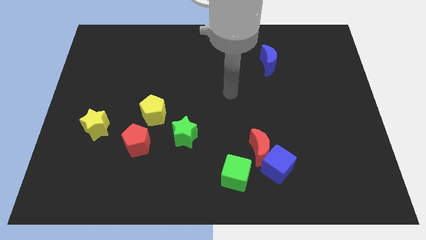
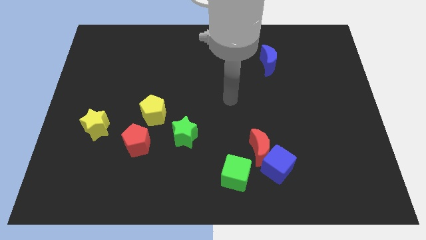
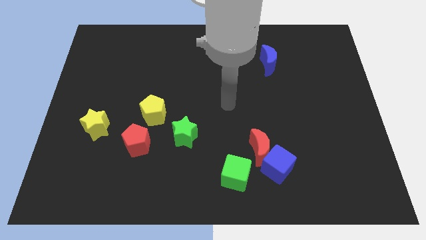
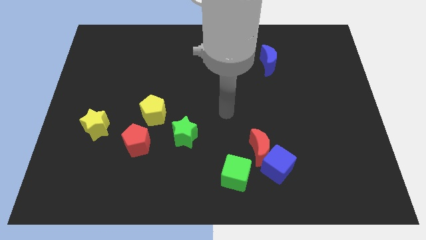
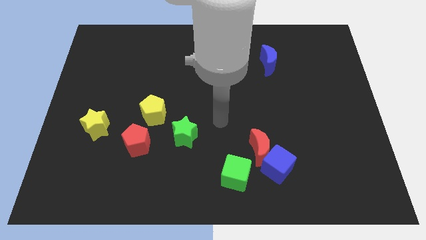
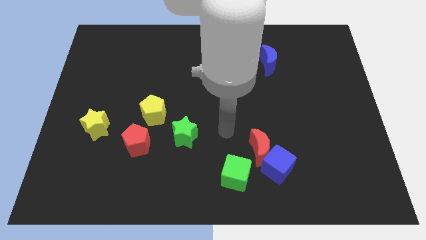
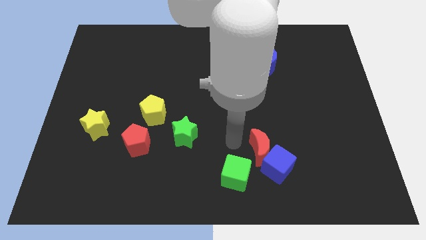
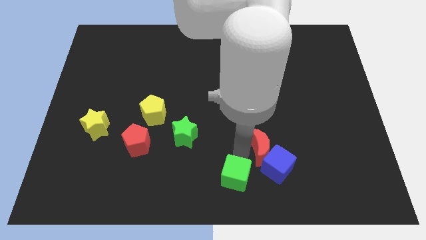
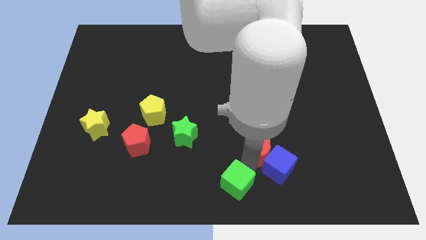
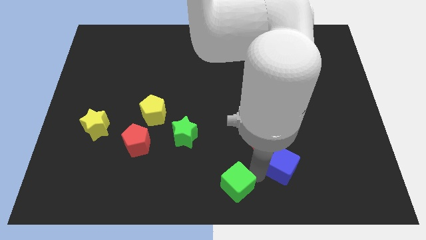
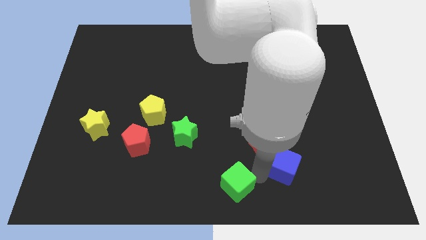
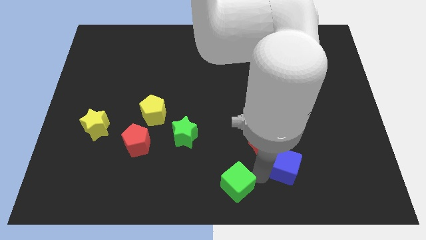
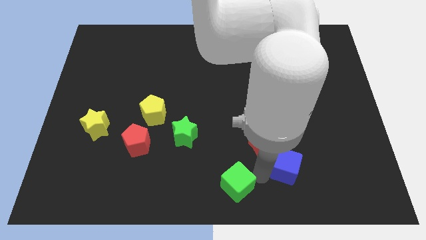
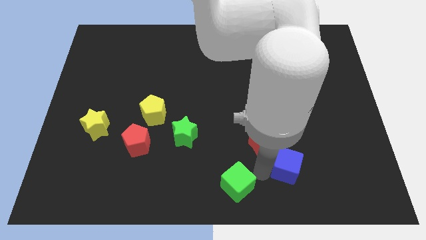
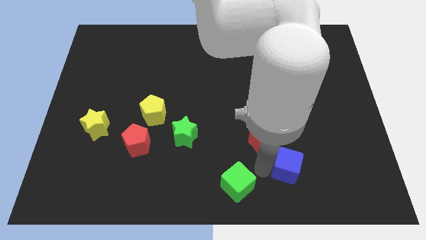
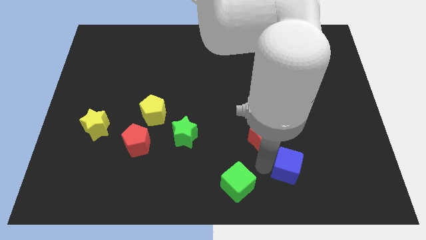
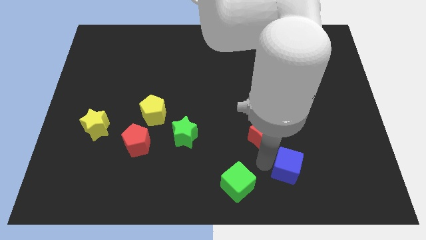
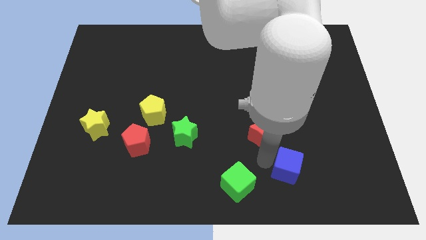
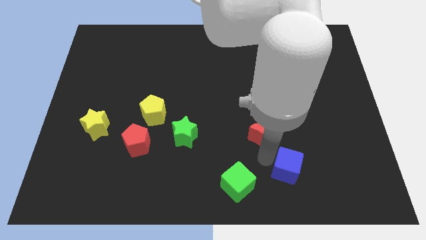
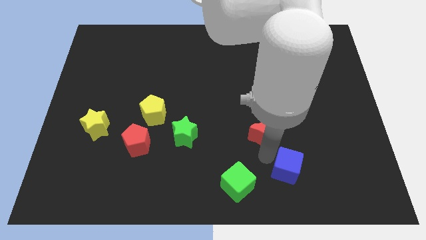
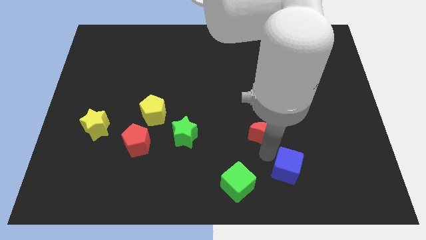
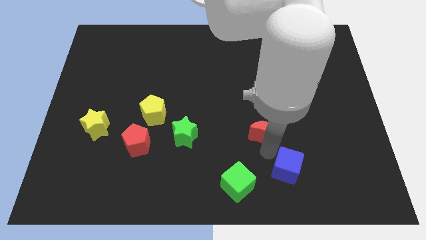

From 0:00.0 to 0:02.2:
separate the red moon from the blue cube and green cube

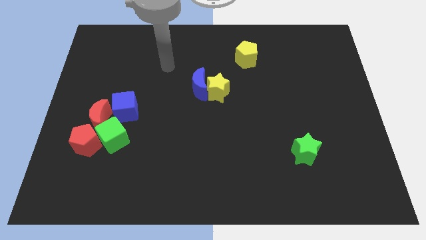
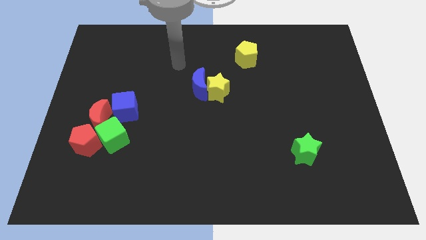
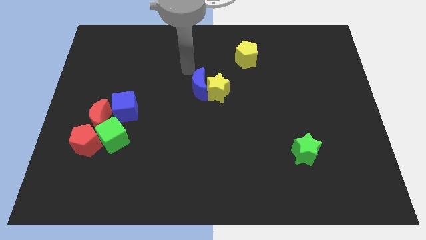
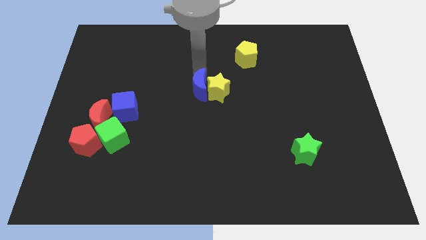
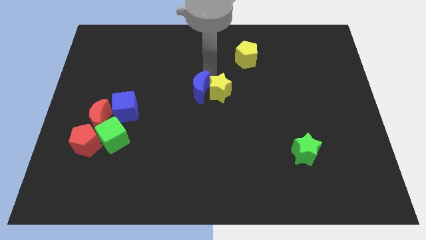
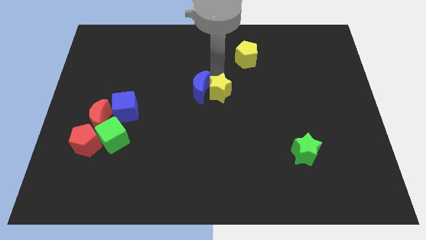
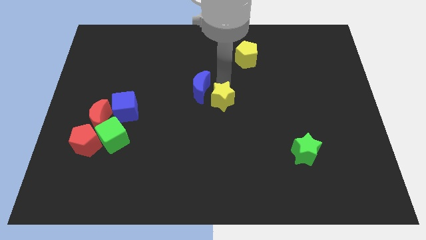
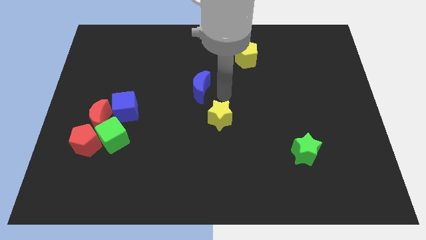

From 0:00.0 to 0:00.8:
pull the blue moon apart from the yellow star

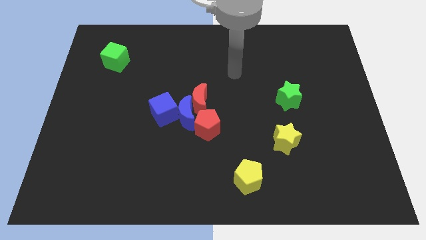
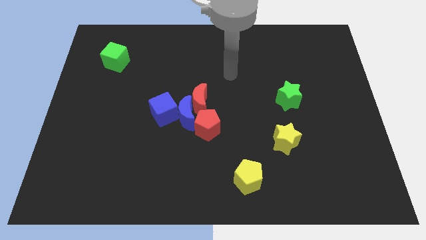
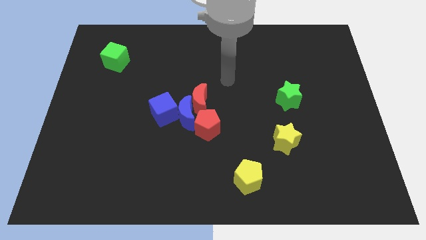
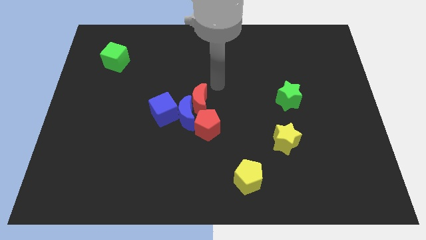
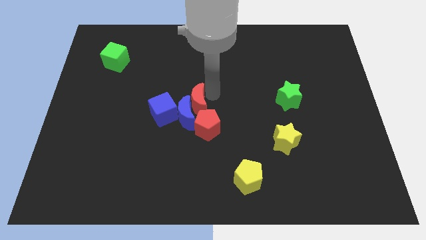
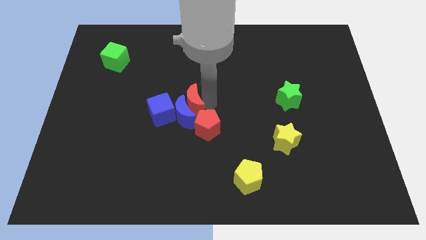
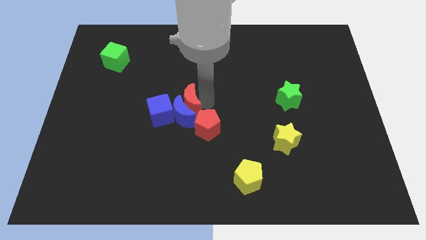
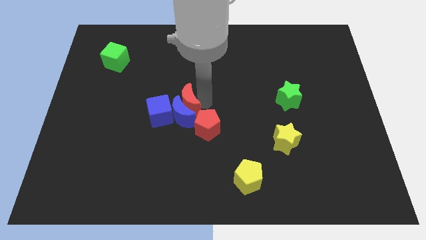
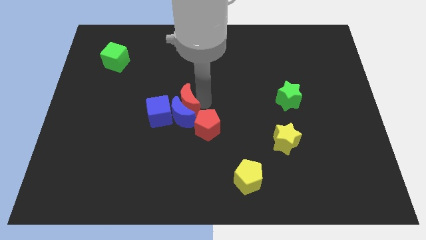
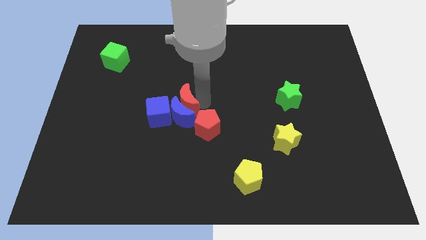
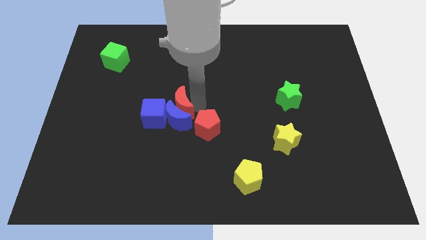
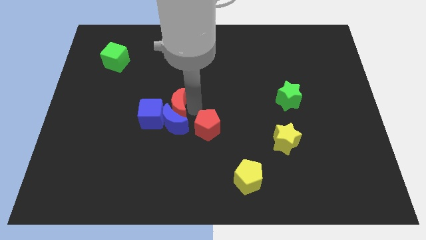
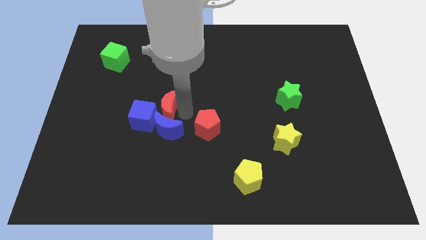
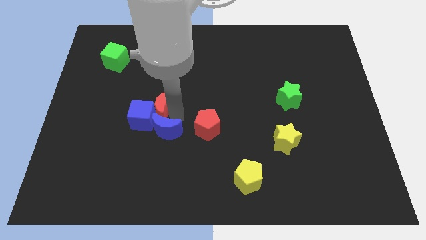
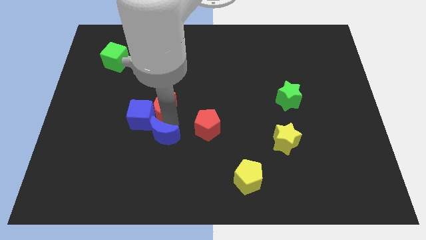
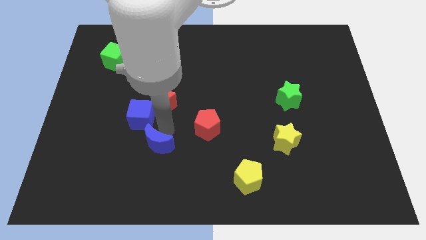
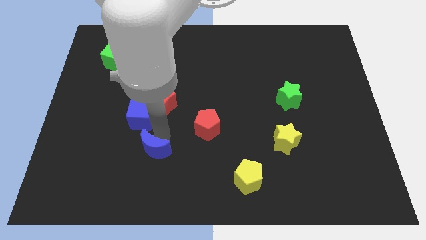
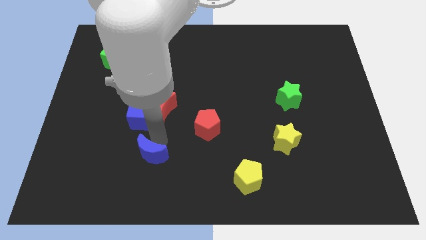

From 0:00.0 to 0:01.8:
separate the blue moon from the red moon, blue cube, and red pentagon

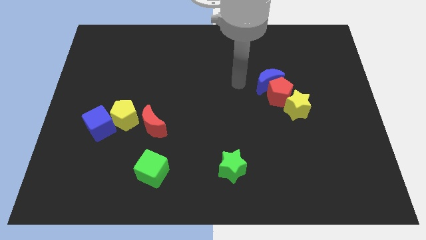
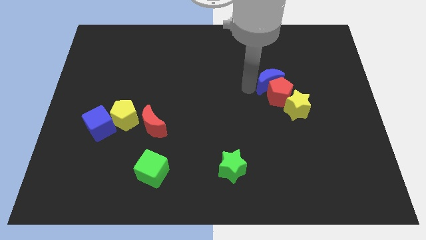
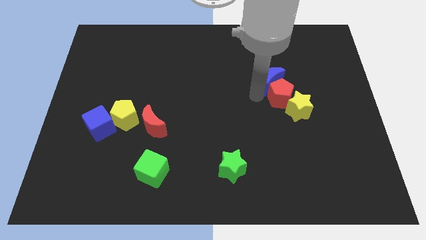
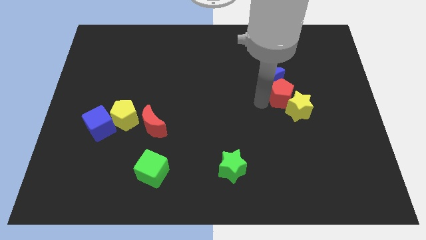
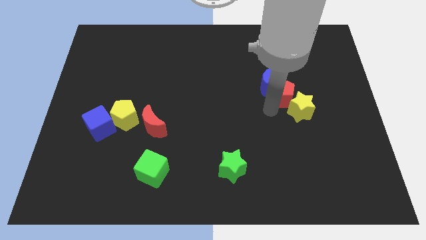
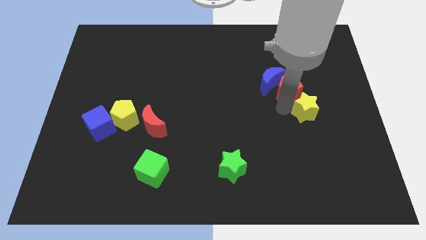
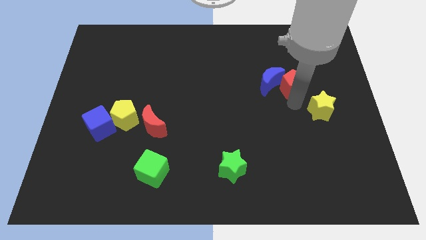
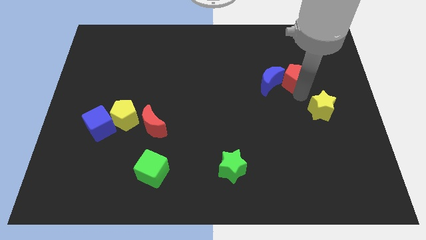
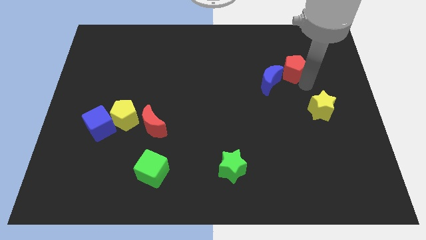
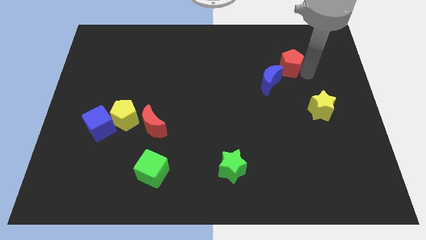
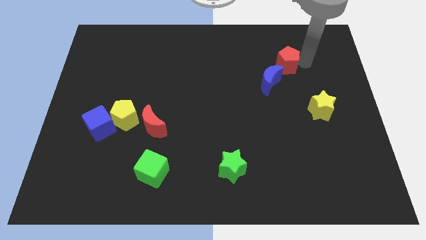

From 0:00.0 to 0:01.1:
move the red pentagon away from the blue moon and yellow star

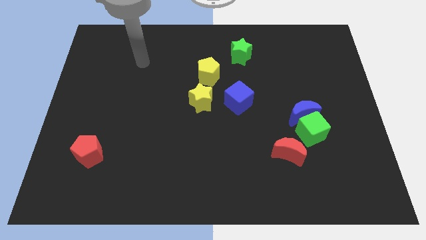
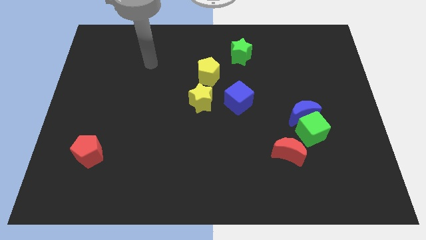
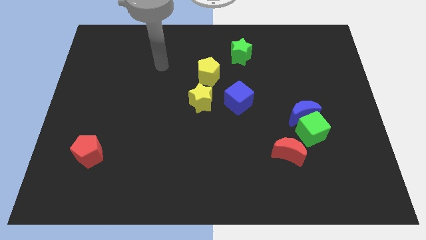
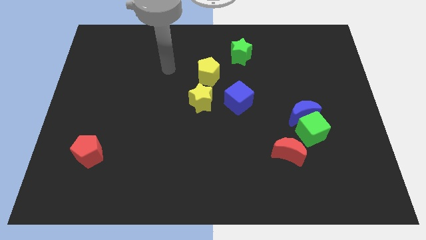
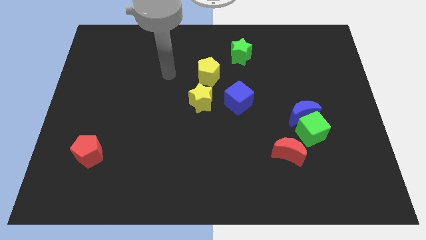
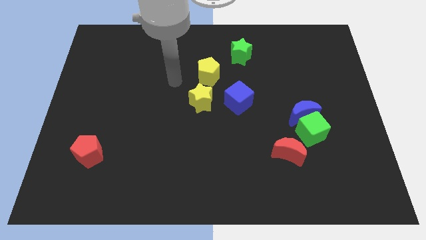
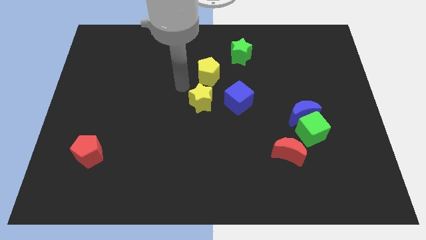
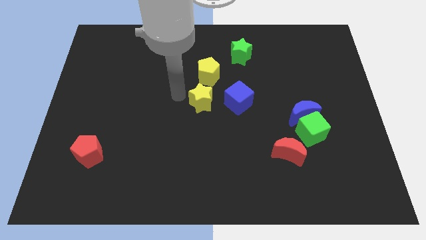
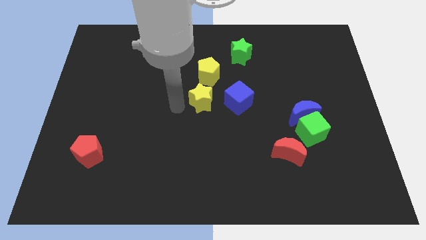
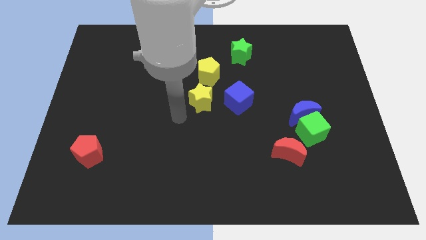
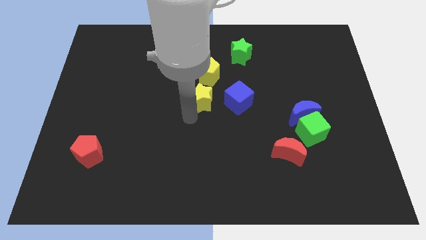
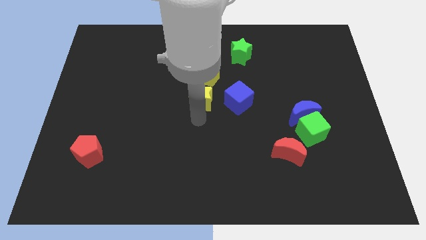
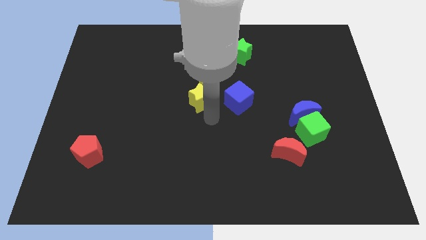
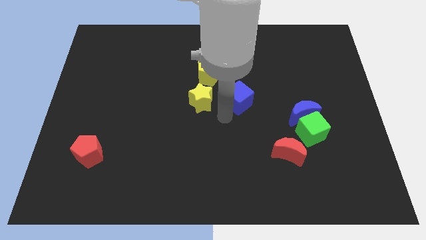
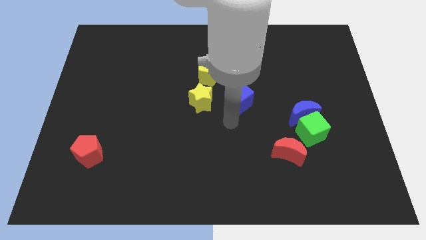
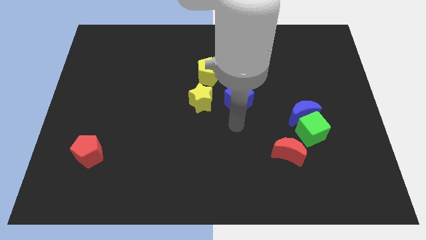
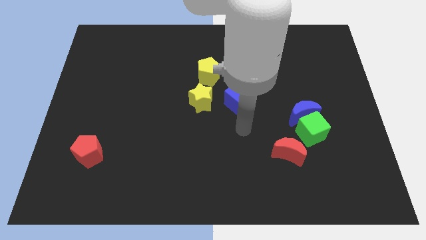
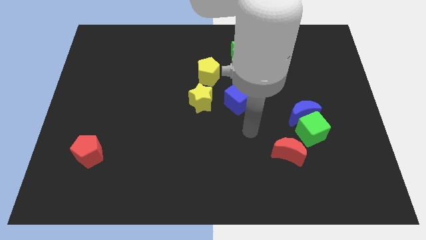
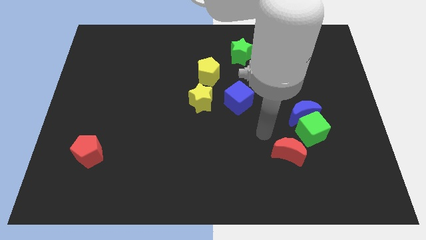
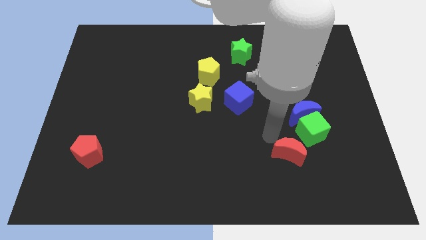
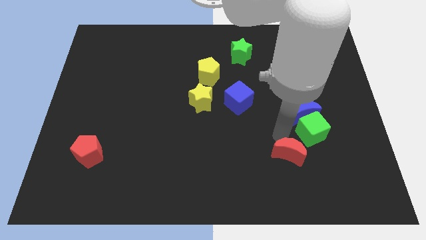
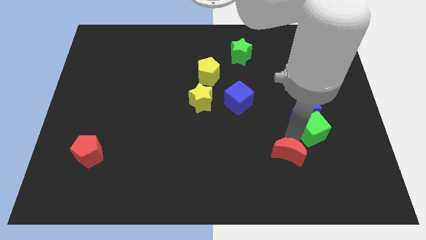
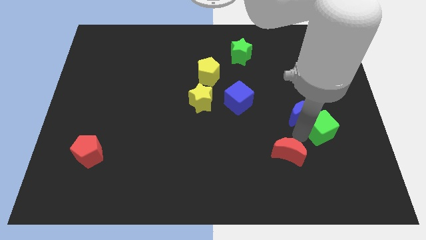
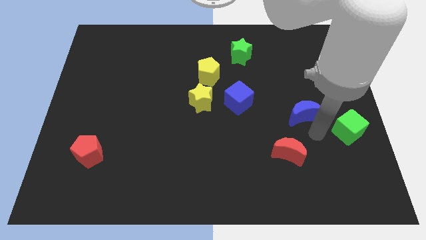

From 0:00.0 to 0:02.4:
move the blue moon away from the green cube

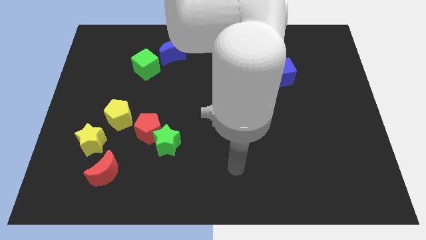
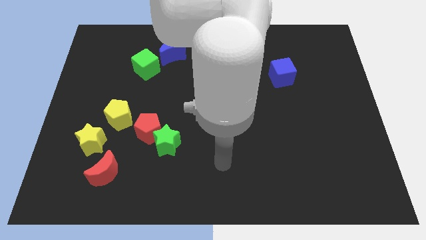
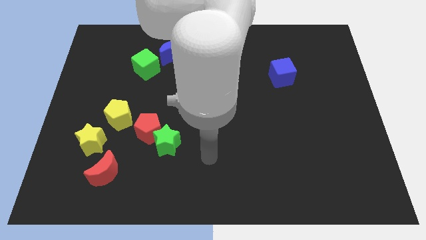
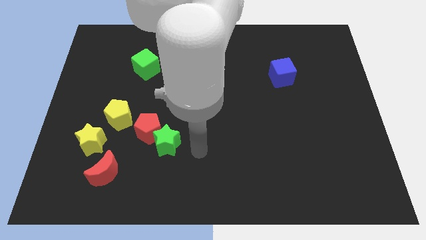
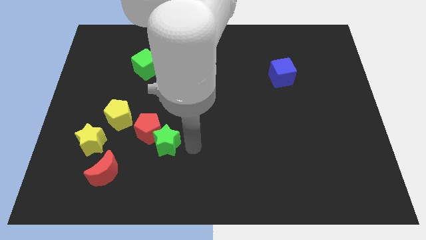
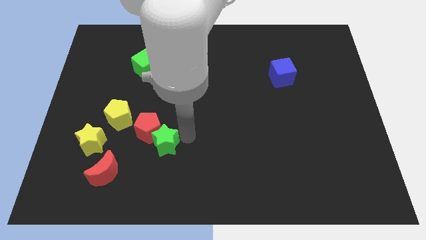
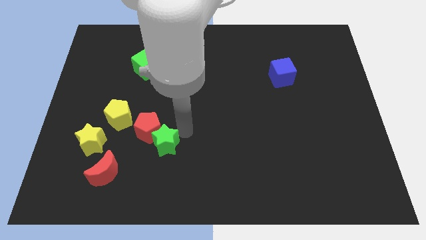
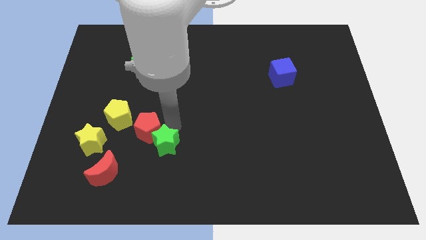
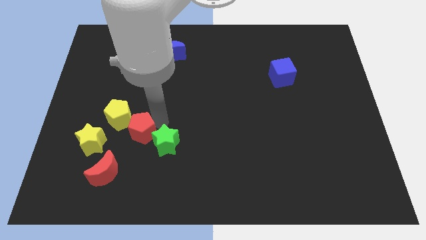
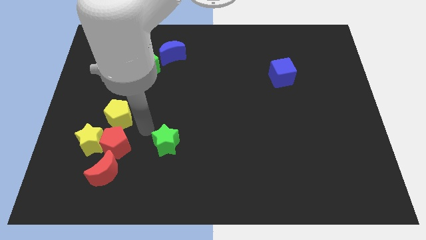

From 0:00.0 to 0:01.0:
pull the green star apart from the red pentagon
